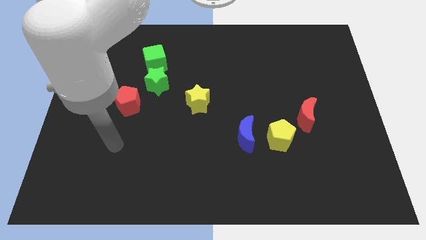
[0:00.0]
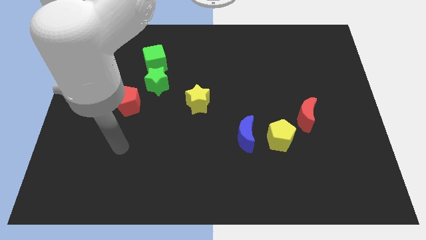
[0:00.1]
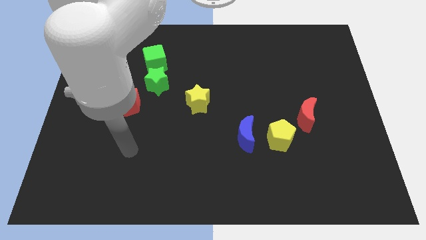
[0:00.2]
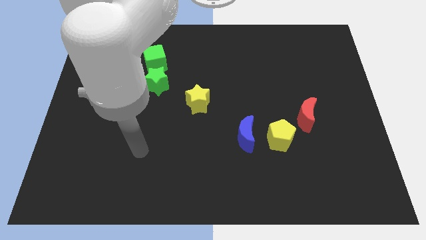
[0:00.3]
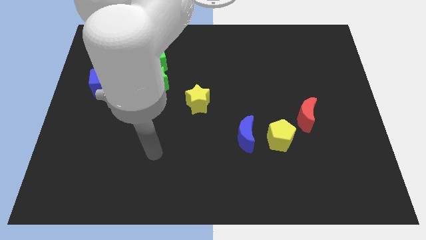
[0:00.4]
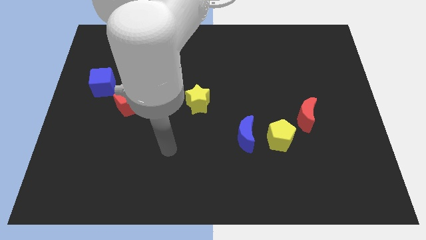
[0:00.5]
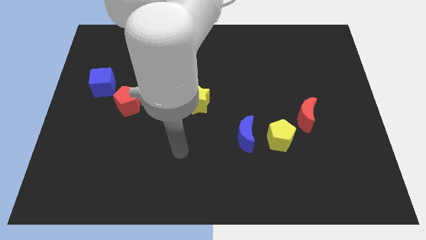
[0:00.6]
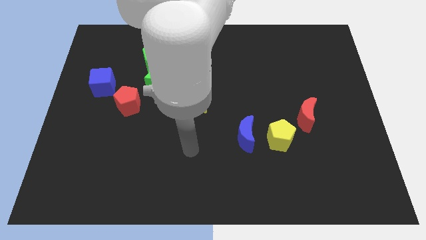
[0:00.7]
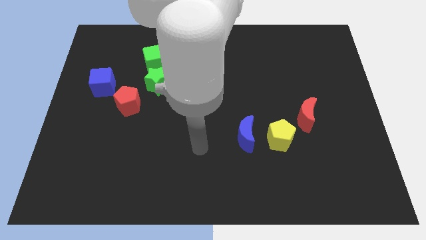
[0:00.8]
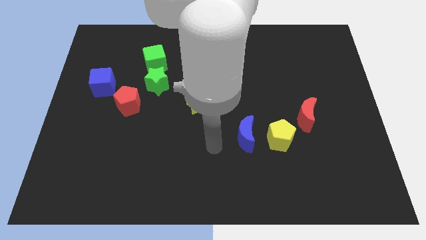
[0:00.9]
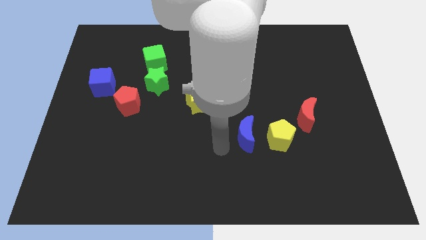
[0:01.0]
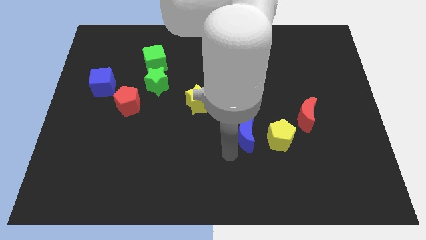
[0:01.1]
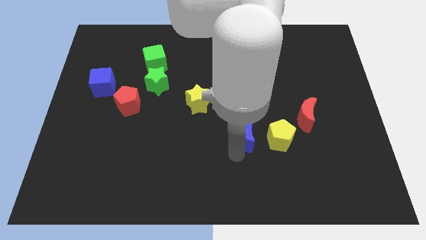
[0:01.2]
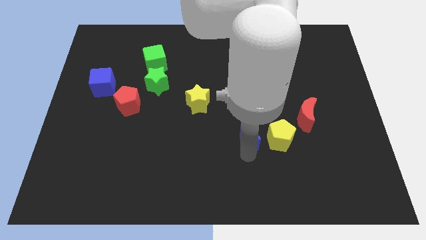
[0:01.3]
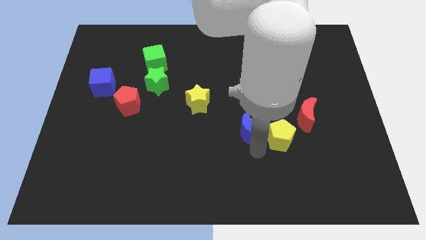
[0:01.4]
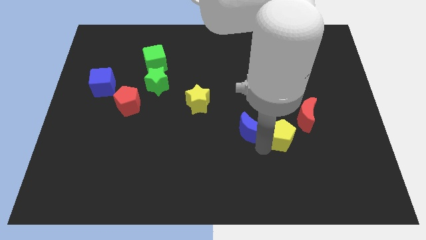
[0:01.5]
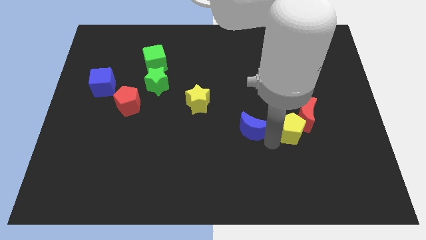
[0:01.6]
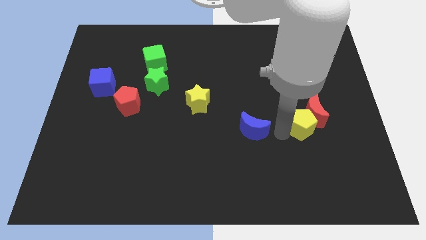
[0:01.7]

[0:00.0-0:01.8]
pull the blue moon apart from the yellow pentagon

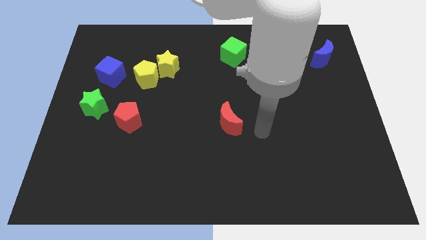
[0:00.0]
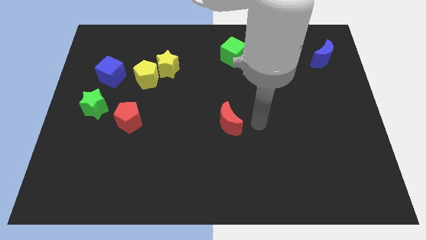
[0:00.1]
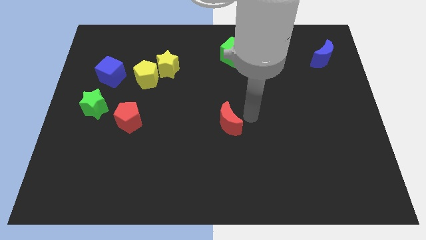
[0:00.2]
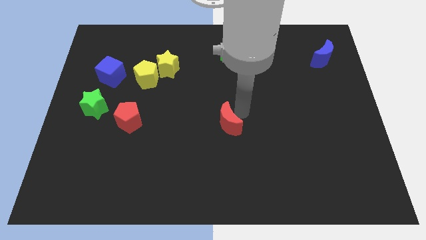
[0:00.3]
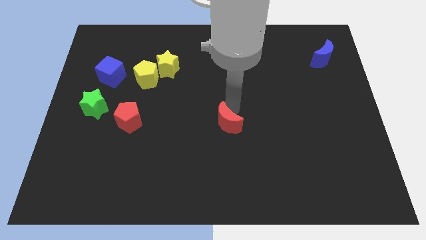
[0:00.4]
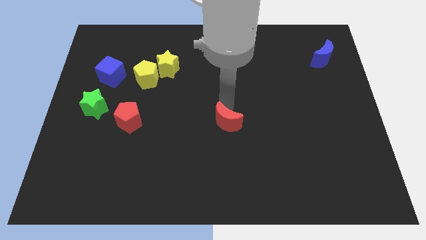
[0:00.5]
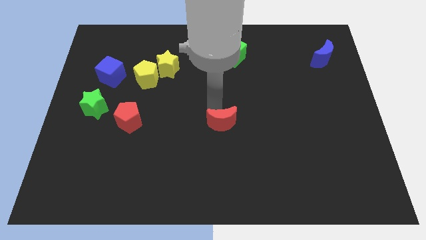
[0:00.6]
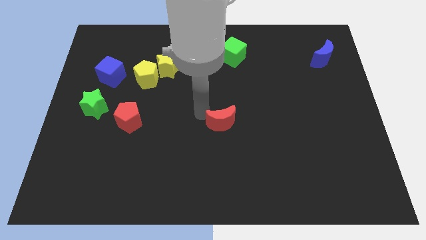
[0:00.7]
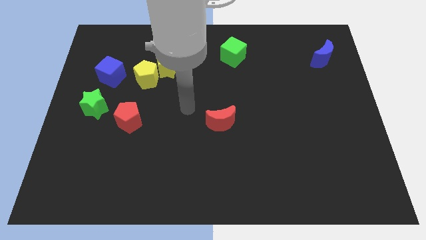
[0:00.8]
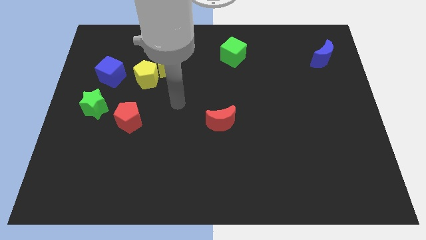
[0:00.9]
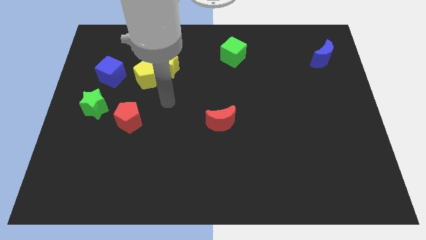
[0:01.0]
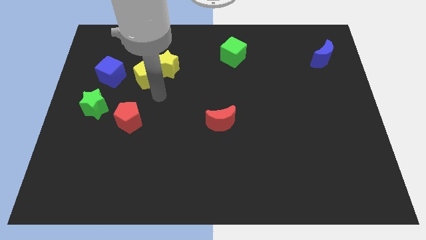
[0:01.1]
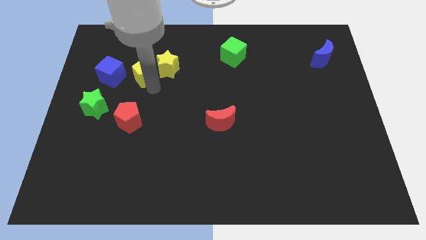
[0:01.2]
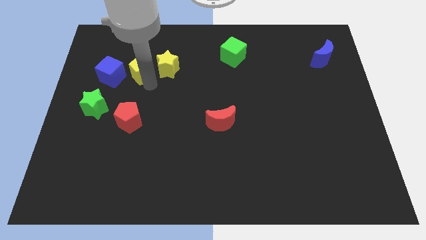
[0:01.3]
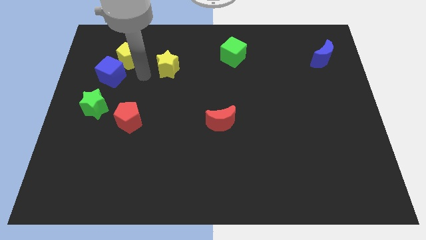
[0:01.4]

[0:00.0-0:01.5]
separate the yellow star from the yellow pentagon

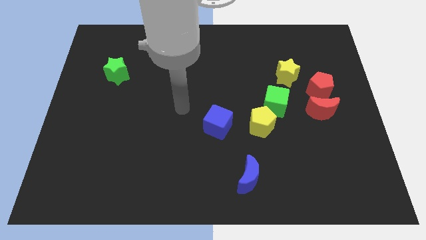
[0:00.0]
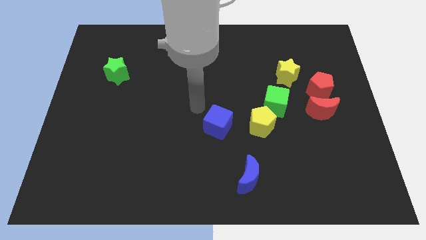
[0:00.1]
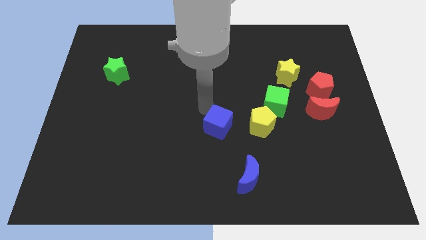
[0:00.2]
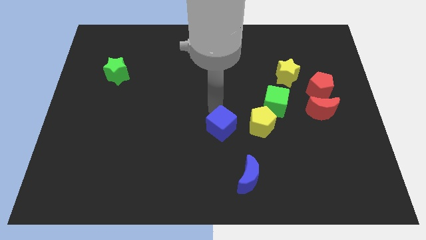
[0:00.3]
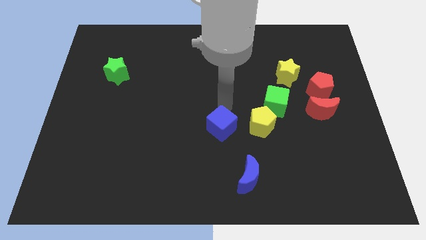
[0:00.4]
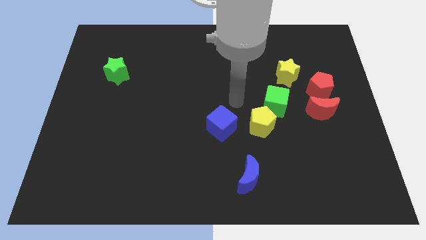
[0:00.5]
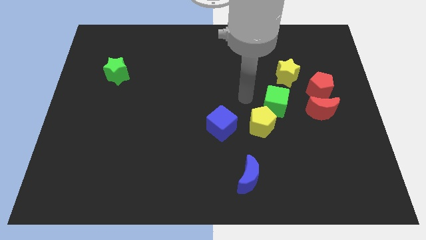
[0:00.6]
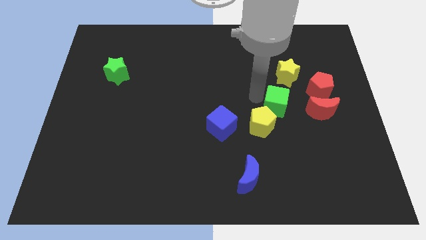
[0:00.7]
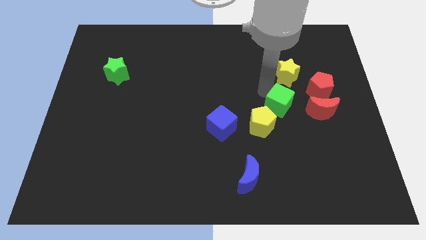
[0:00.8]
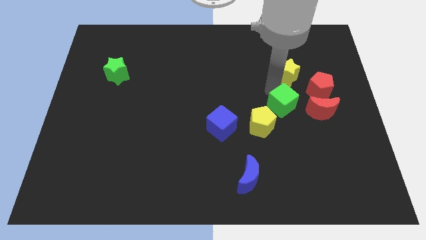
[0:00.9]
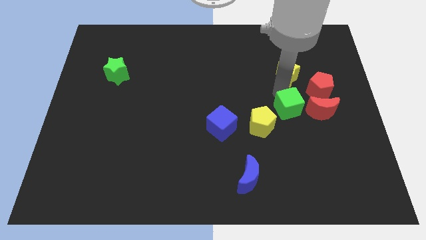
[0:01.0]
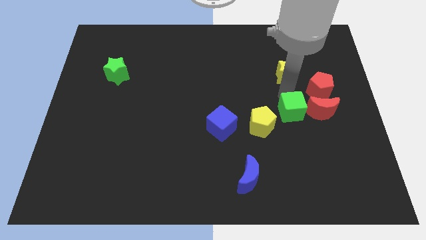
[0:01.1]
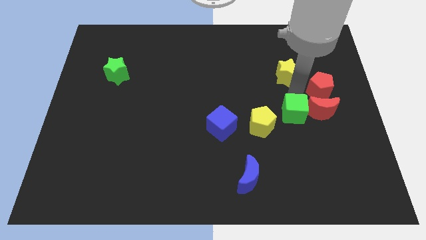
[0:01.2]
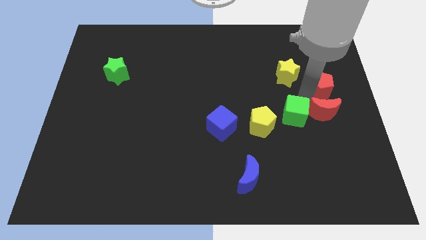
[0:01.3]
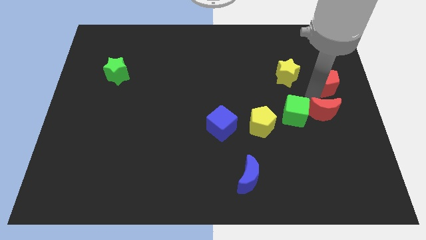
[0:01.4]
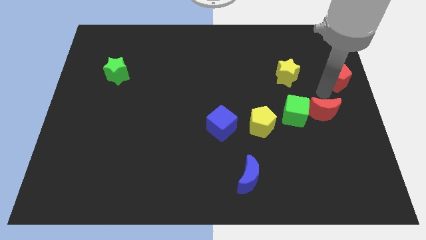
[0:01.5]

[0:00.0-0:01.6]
pull the red moon apart from the red pentagon

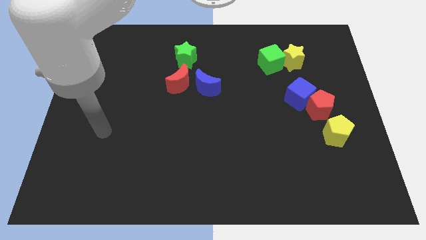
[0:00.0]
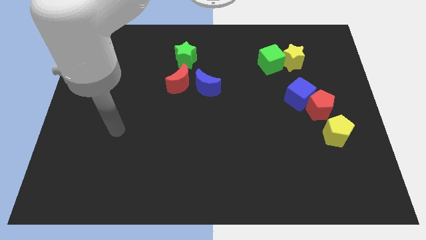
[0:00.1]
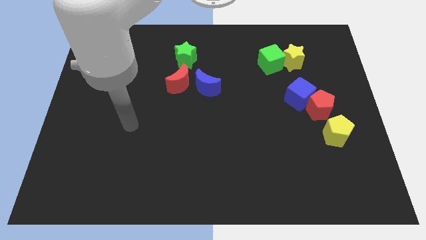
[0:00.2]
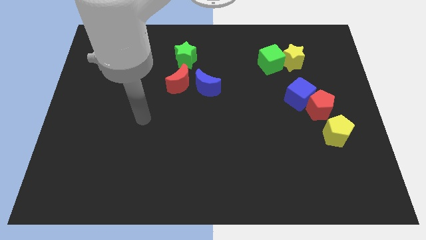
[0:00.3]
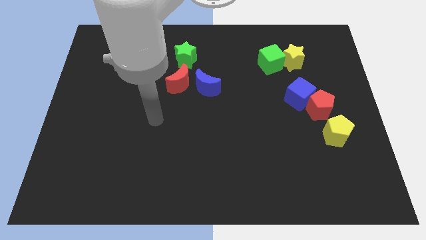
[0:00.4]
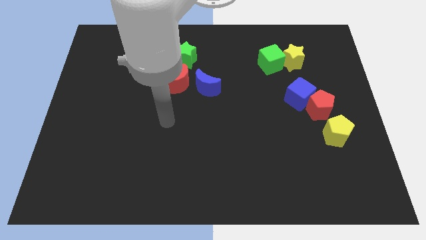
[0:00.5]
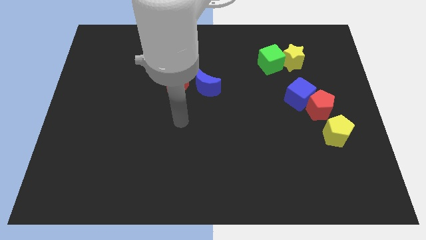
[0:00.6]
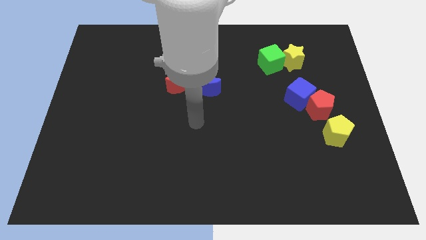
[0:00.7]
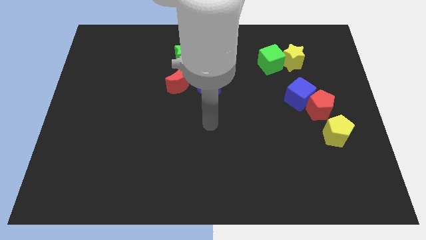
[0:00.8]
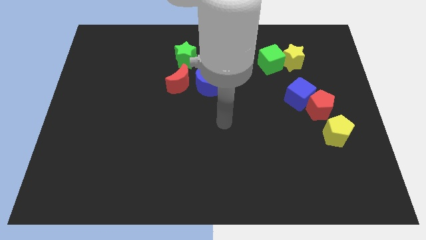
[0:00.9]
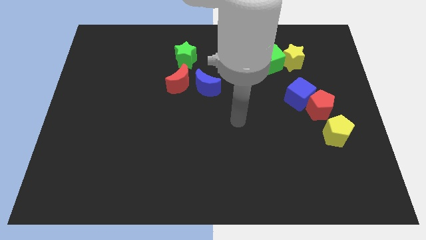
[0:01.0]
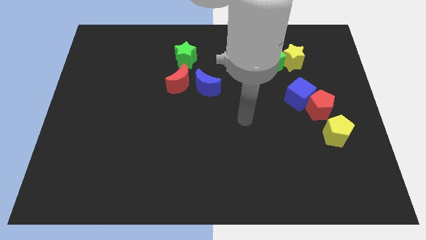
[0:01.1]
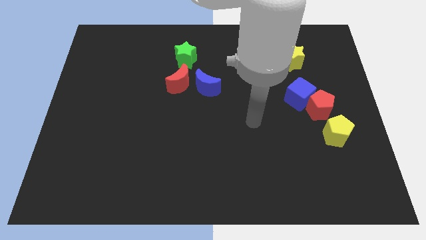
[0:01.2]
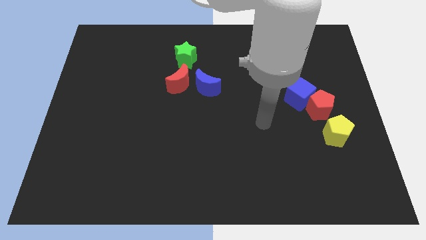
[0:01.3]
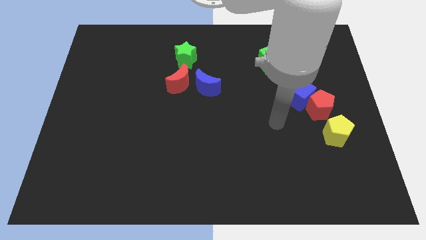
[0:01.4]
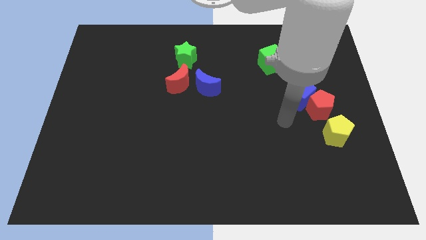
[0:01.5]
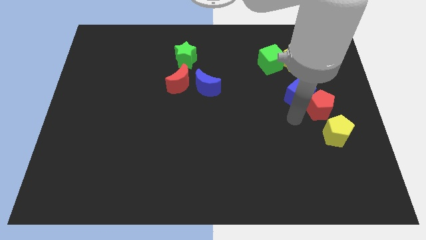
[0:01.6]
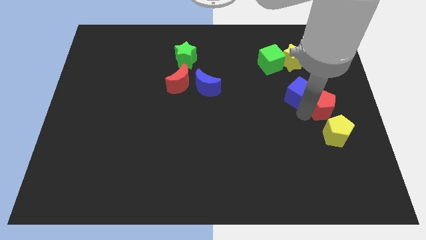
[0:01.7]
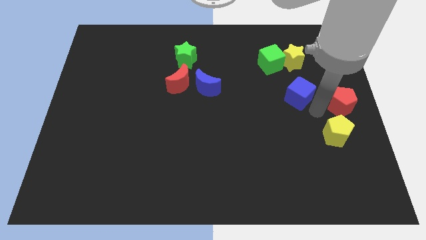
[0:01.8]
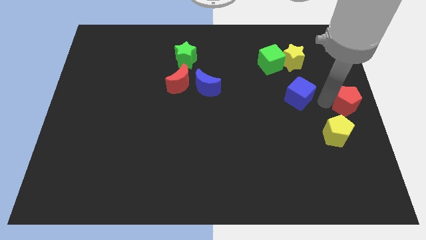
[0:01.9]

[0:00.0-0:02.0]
move the blue cube away from the red pentagon

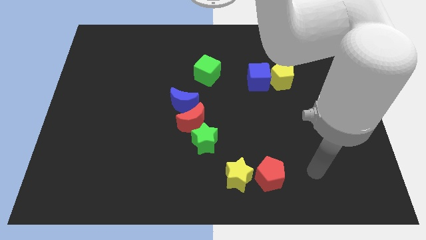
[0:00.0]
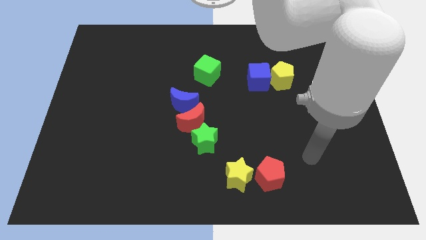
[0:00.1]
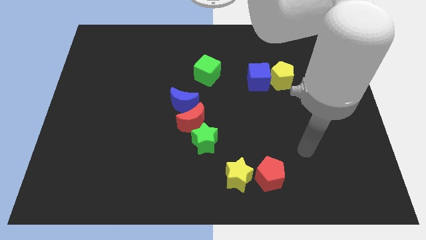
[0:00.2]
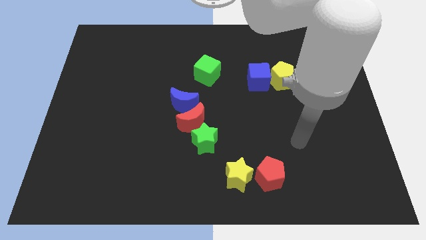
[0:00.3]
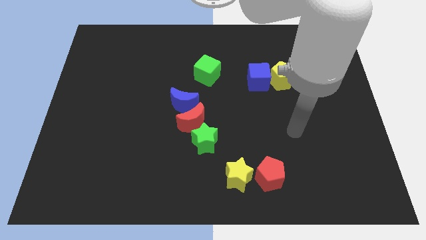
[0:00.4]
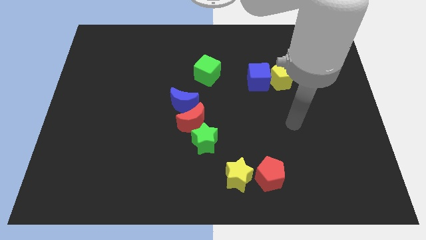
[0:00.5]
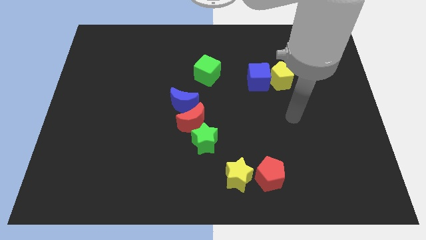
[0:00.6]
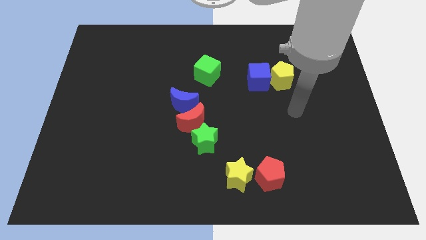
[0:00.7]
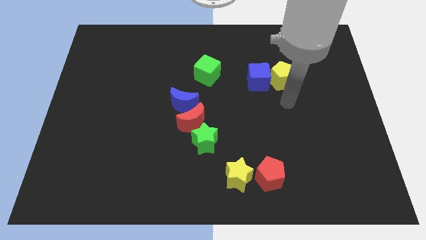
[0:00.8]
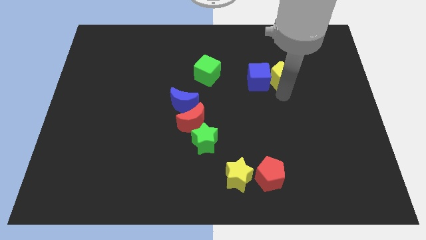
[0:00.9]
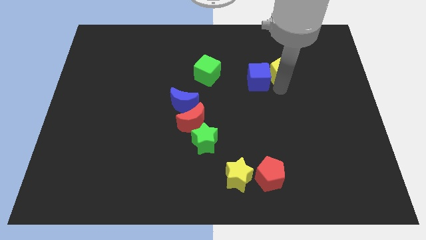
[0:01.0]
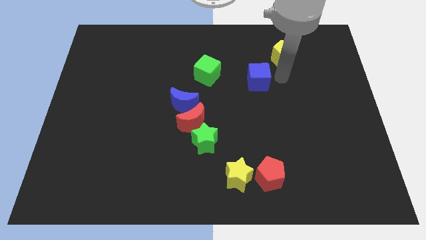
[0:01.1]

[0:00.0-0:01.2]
pull the blue cube apart from the yellow pentagon

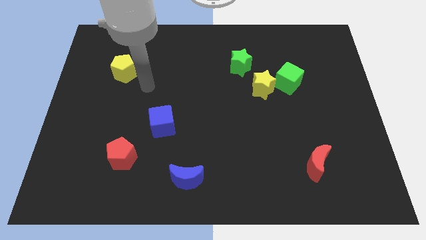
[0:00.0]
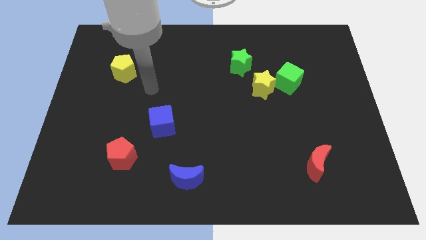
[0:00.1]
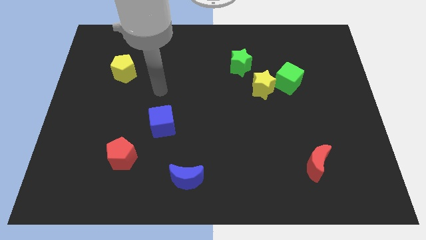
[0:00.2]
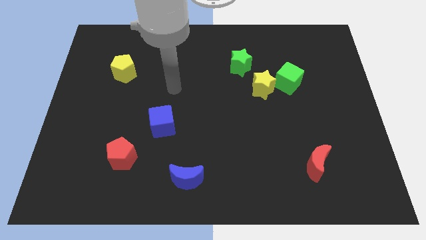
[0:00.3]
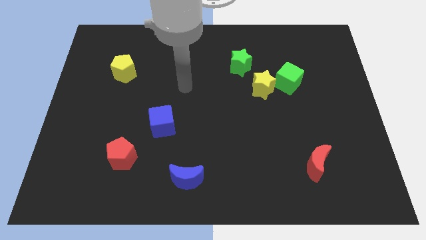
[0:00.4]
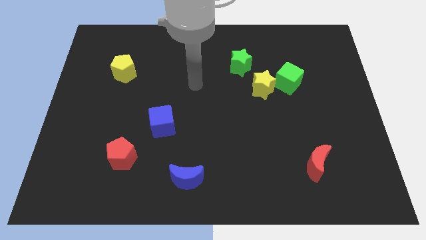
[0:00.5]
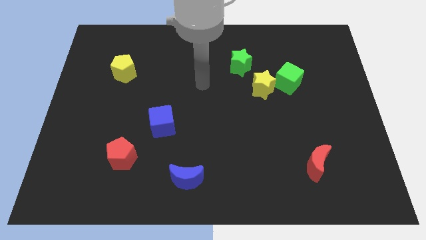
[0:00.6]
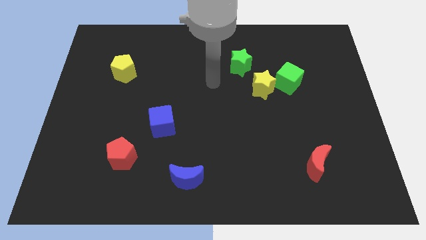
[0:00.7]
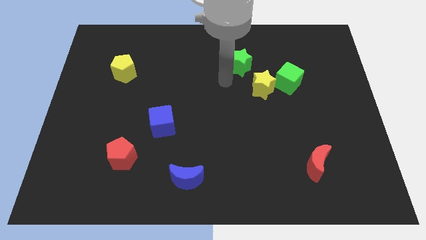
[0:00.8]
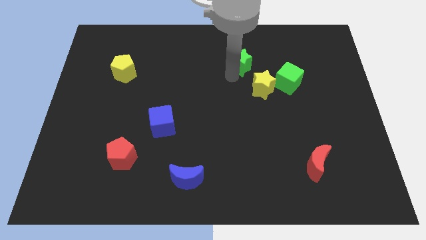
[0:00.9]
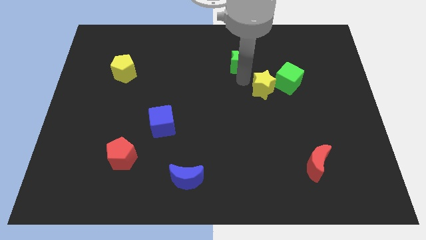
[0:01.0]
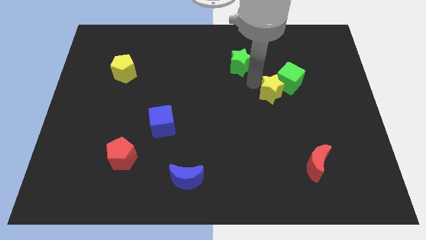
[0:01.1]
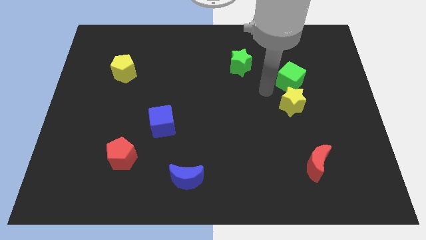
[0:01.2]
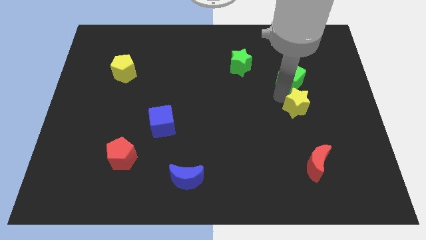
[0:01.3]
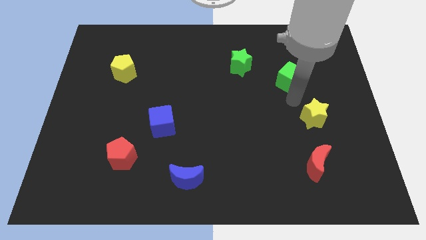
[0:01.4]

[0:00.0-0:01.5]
separate the green cube from the yellow star
